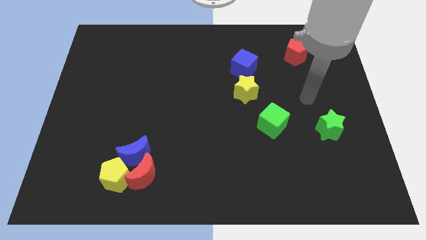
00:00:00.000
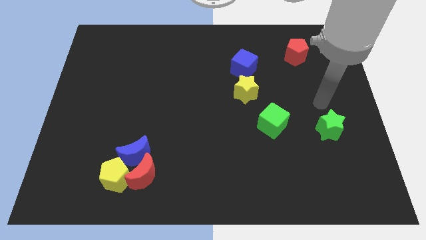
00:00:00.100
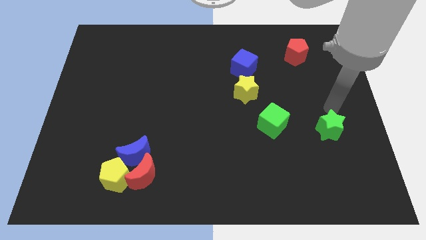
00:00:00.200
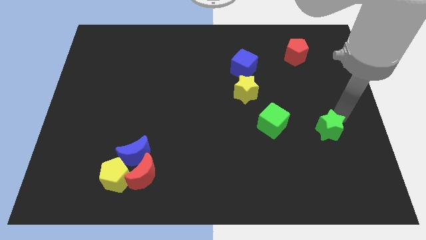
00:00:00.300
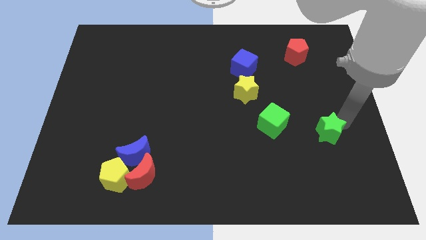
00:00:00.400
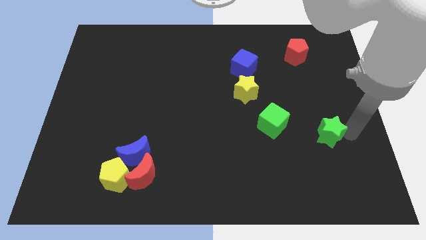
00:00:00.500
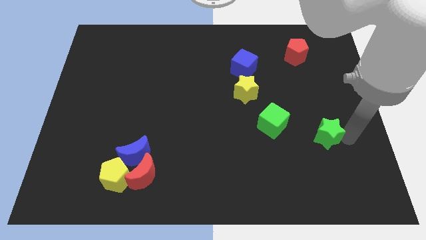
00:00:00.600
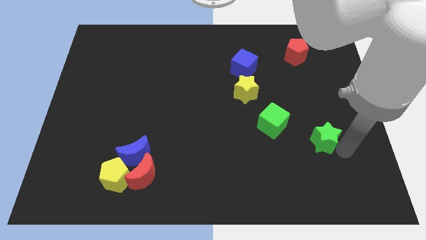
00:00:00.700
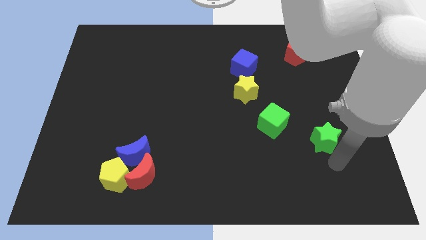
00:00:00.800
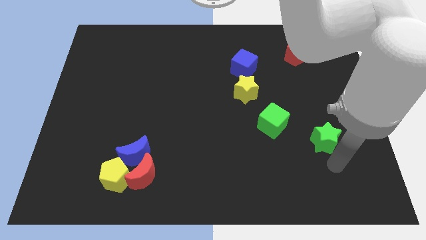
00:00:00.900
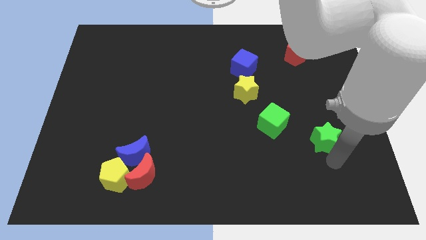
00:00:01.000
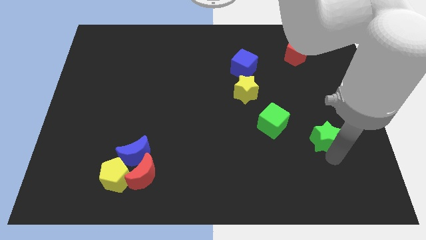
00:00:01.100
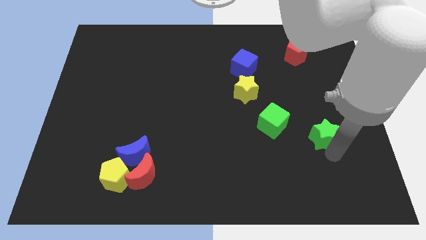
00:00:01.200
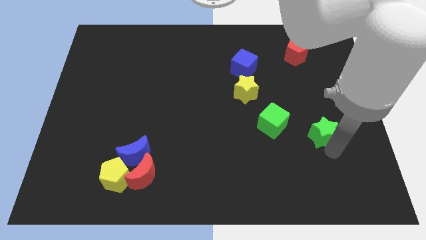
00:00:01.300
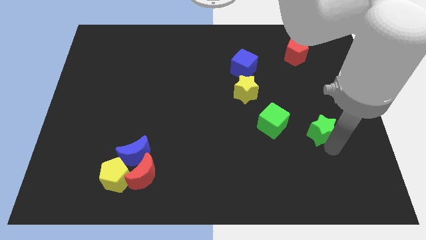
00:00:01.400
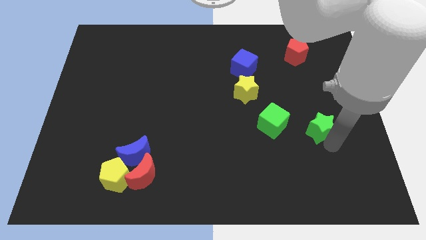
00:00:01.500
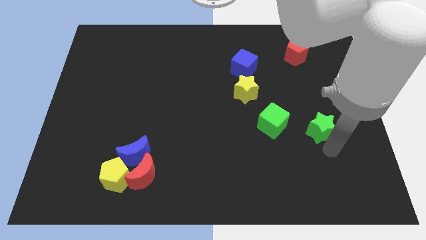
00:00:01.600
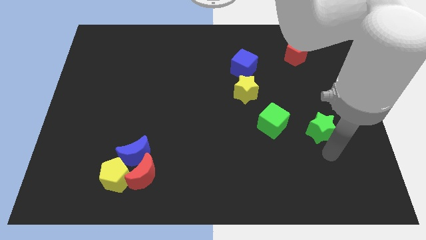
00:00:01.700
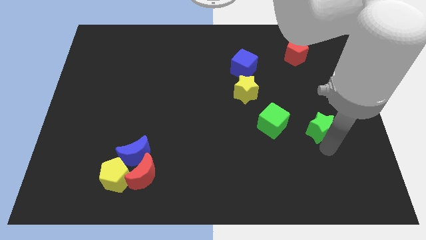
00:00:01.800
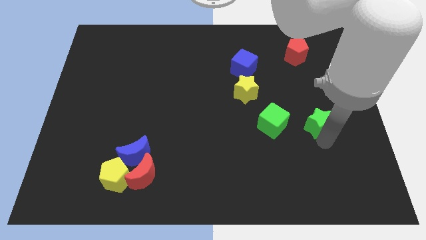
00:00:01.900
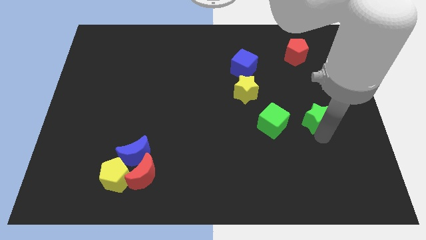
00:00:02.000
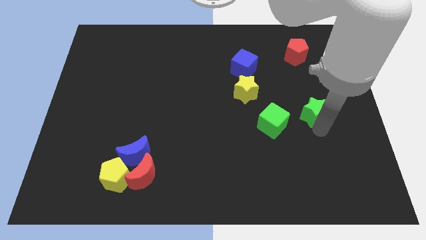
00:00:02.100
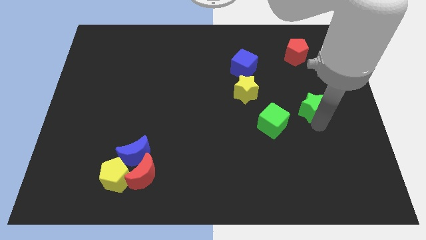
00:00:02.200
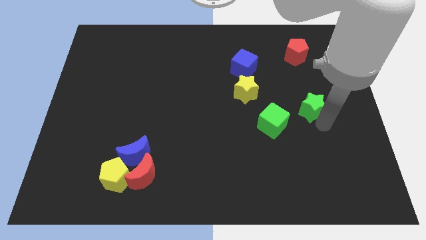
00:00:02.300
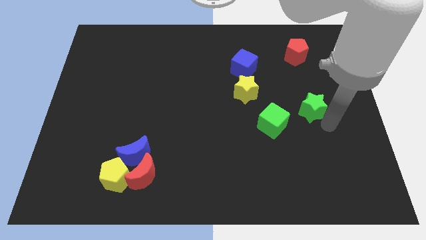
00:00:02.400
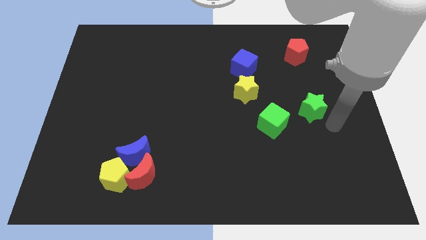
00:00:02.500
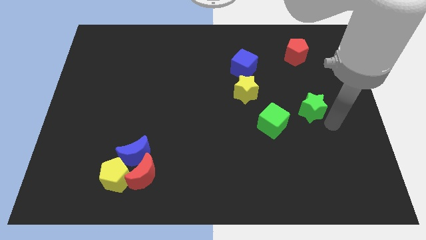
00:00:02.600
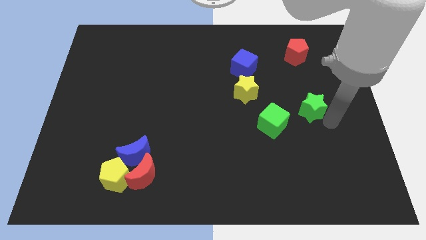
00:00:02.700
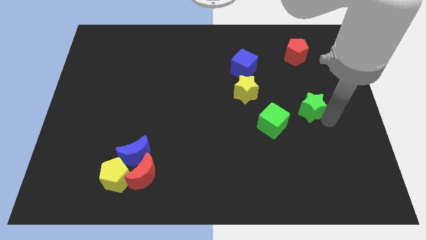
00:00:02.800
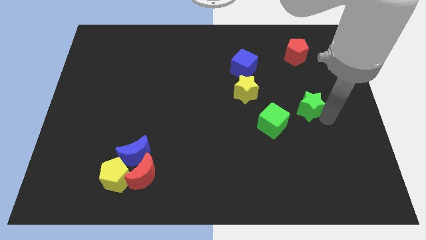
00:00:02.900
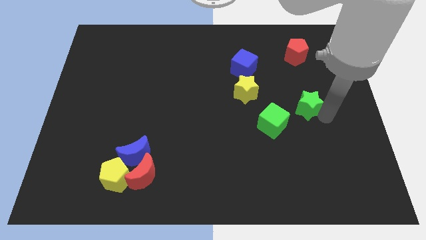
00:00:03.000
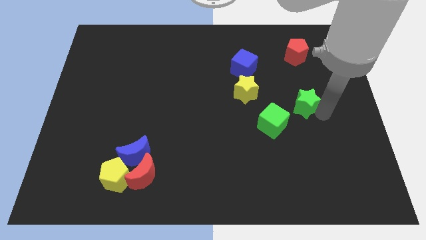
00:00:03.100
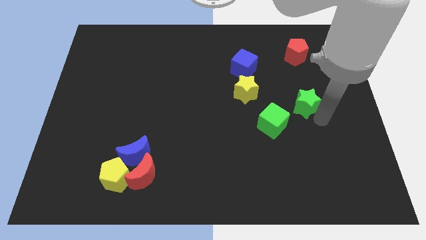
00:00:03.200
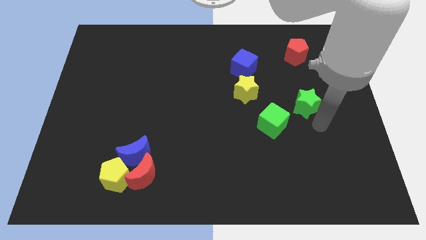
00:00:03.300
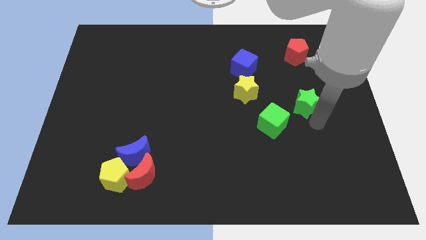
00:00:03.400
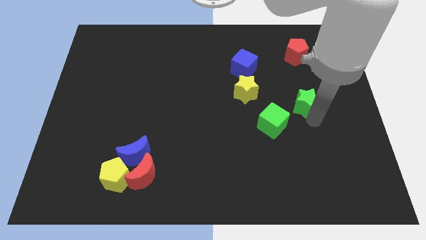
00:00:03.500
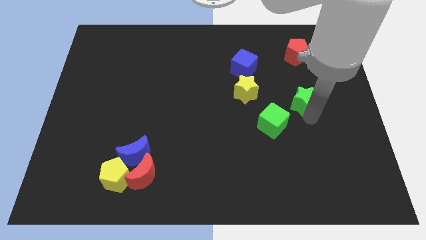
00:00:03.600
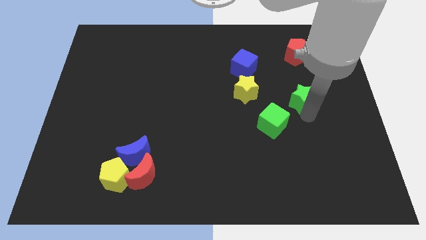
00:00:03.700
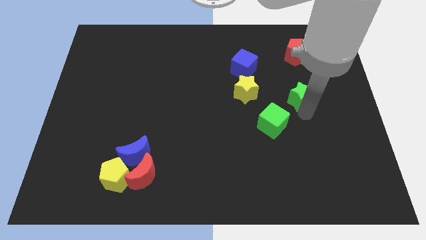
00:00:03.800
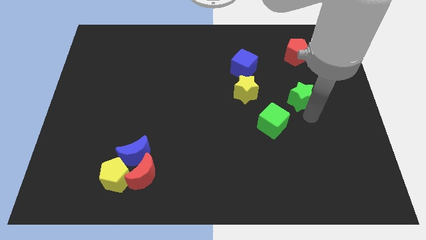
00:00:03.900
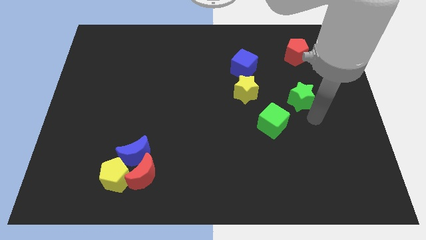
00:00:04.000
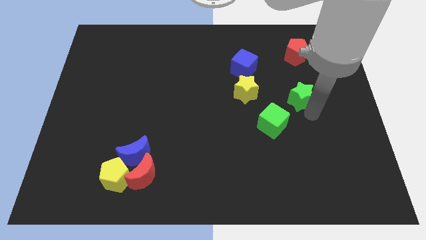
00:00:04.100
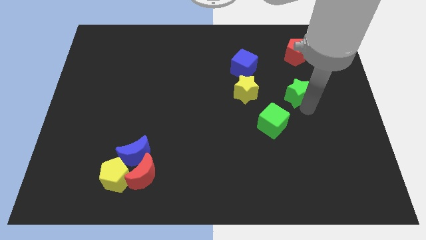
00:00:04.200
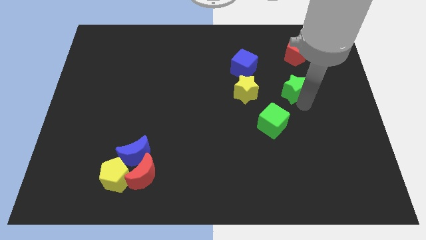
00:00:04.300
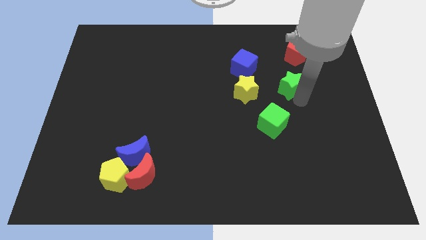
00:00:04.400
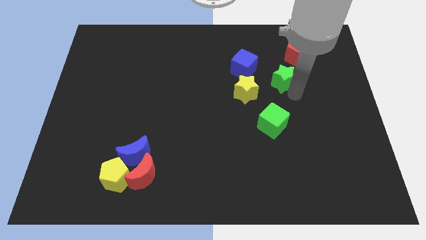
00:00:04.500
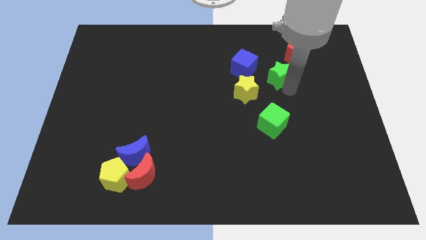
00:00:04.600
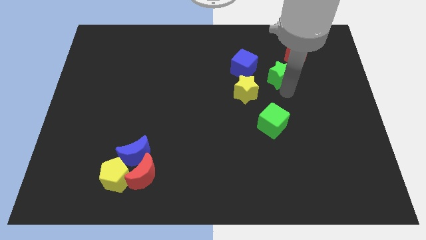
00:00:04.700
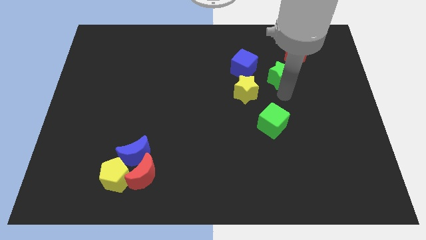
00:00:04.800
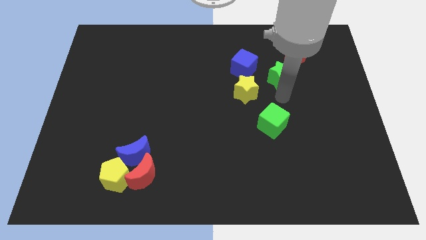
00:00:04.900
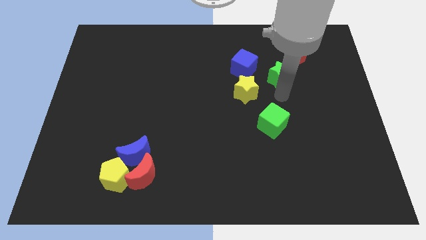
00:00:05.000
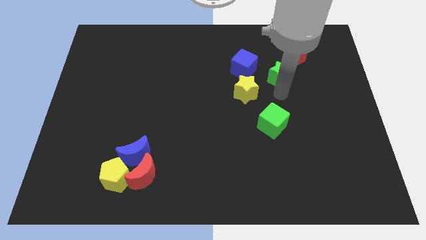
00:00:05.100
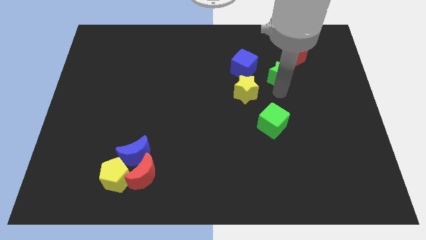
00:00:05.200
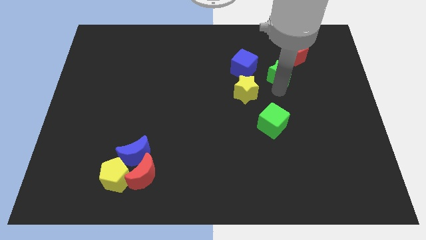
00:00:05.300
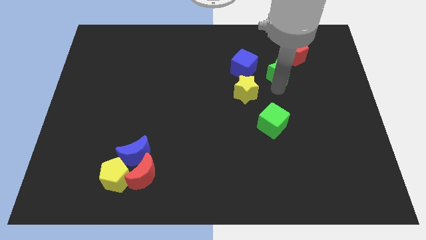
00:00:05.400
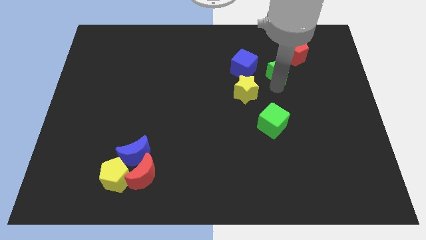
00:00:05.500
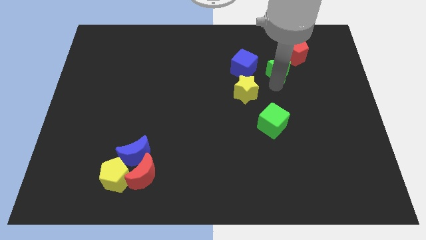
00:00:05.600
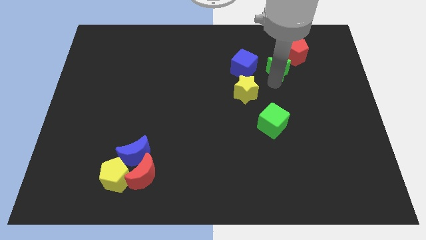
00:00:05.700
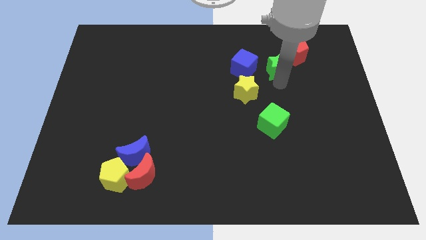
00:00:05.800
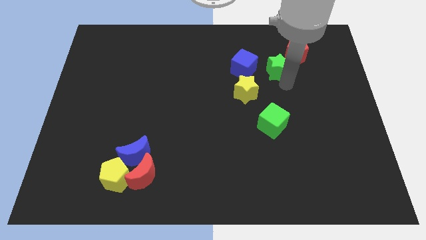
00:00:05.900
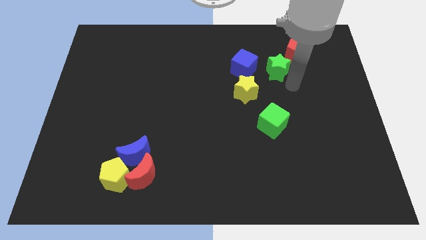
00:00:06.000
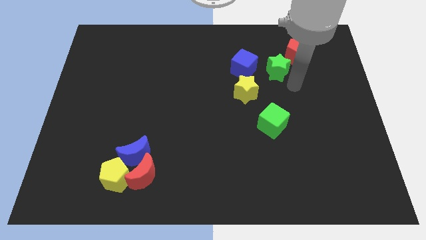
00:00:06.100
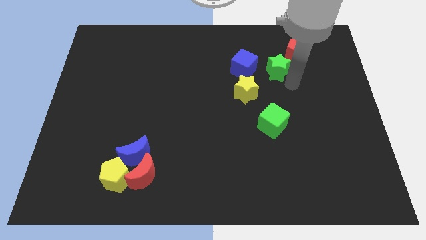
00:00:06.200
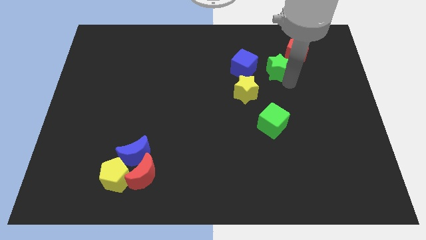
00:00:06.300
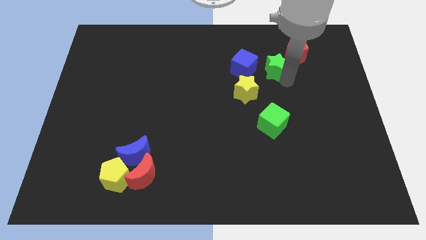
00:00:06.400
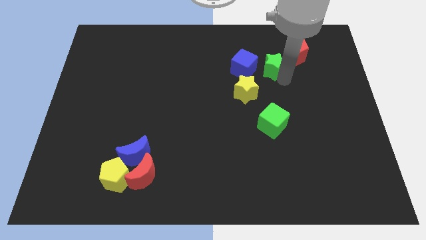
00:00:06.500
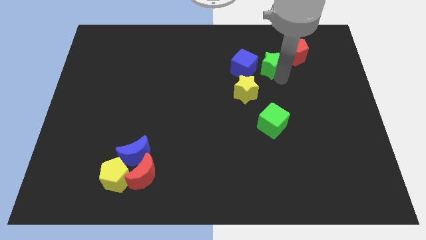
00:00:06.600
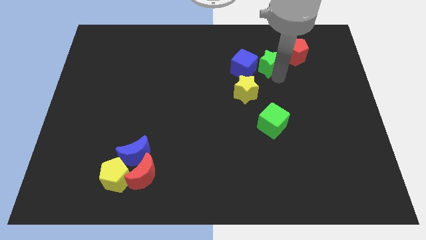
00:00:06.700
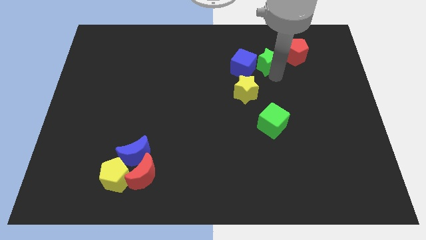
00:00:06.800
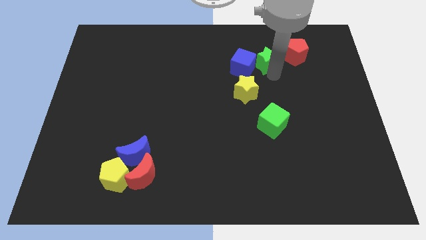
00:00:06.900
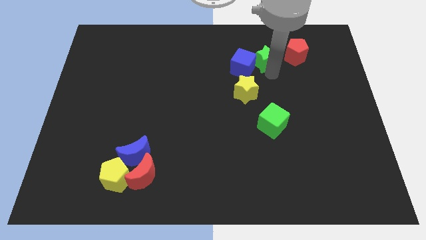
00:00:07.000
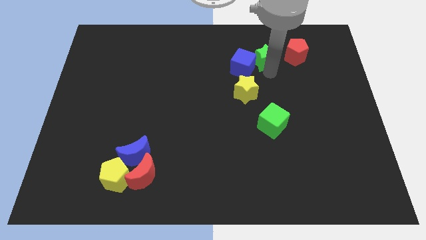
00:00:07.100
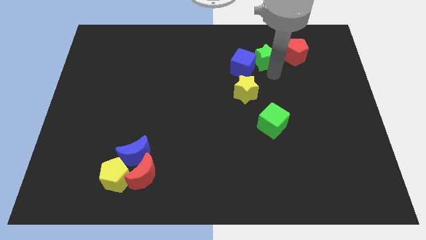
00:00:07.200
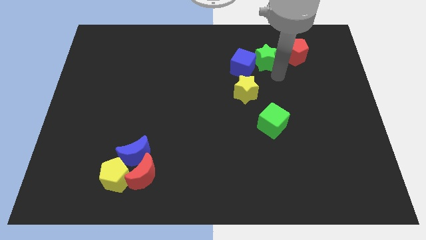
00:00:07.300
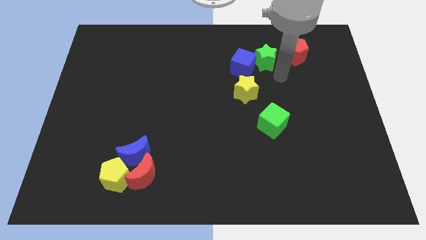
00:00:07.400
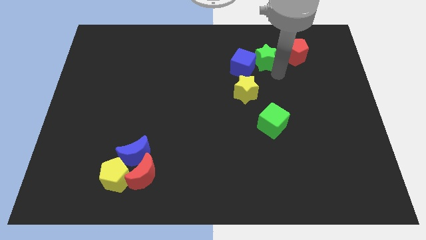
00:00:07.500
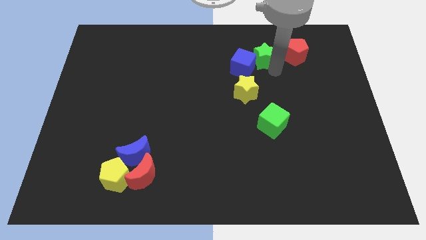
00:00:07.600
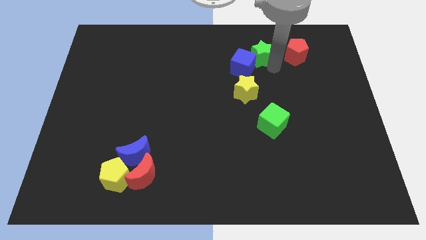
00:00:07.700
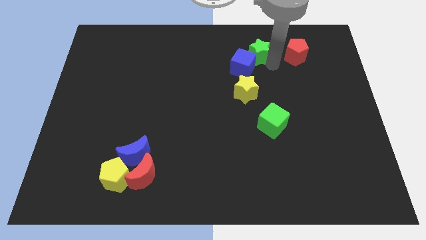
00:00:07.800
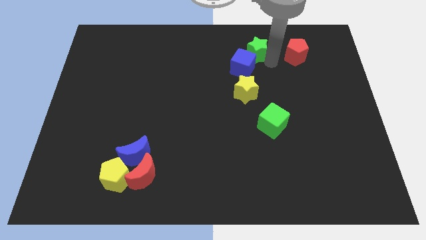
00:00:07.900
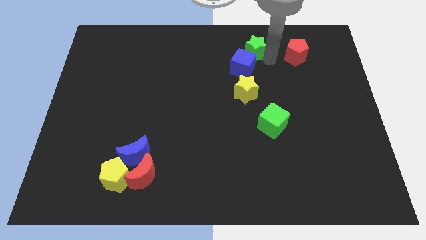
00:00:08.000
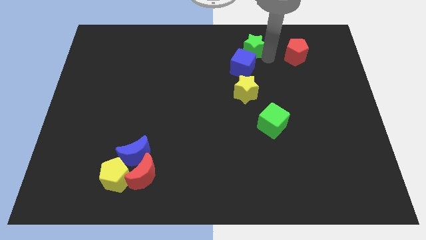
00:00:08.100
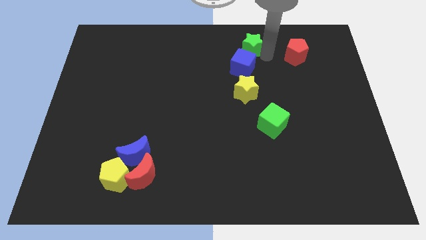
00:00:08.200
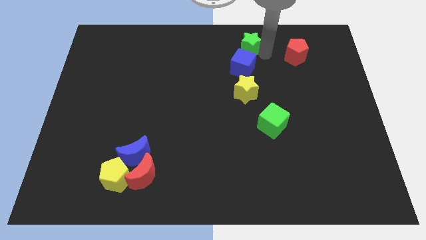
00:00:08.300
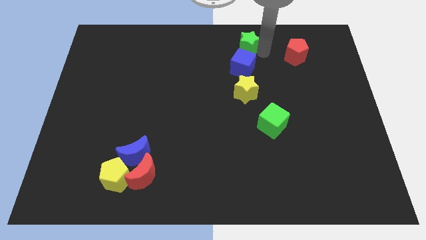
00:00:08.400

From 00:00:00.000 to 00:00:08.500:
put the green star to the towards your base
